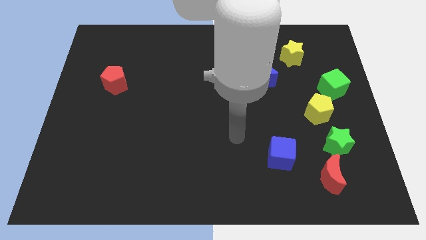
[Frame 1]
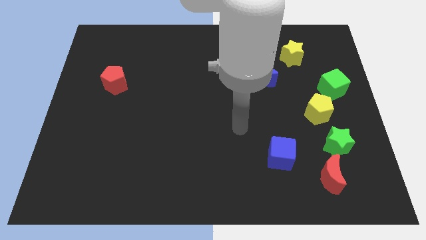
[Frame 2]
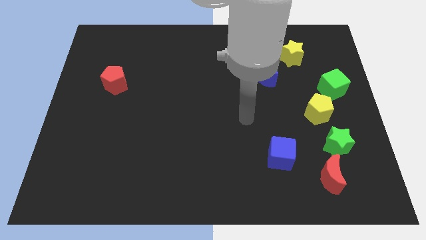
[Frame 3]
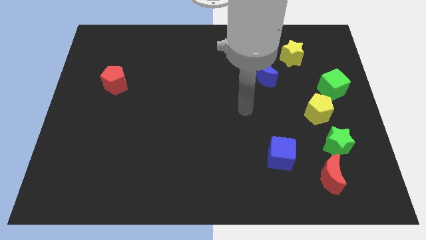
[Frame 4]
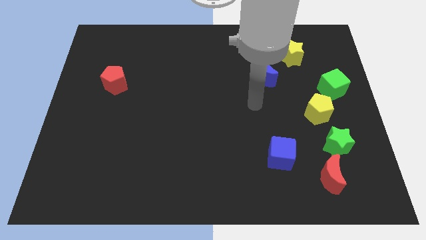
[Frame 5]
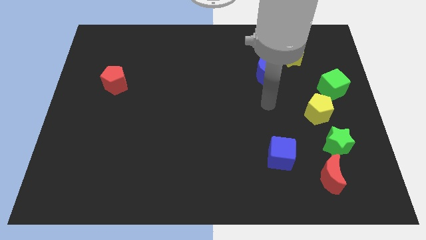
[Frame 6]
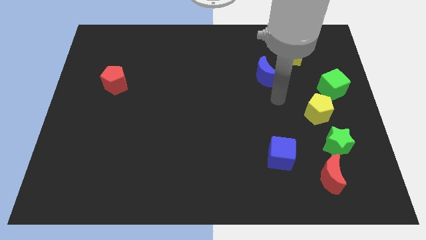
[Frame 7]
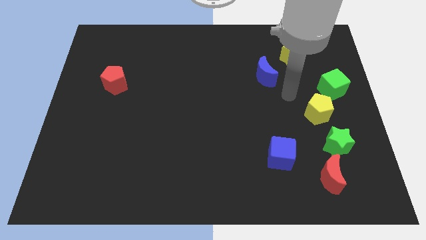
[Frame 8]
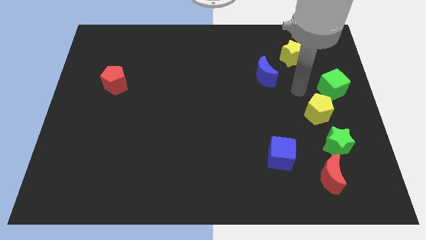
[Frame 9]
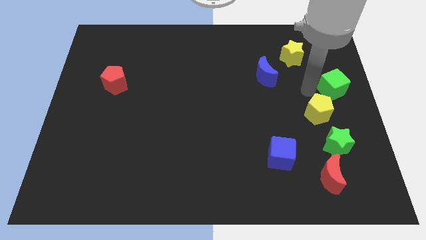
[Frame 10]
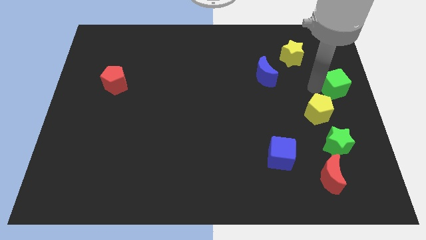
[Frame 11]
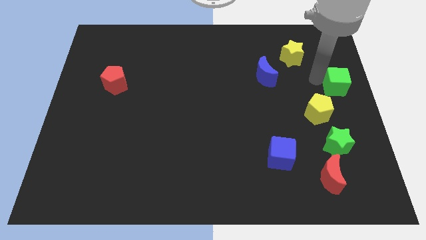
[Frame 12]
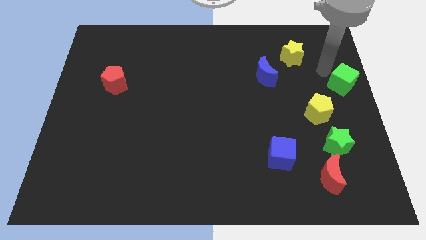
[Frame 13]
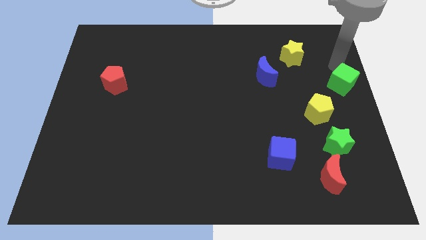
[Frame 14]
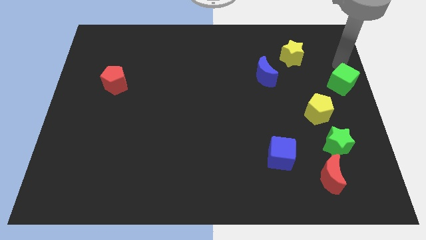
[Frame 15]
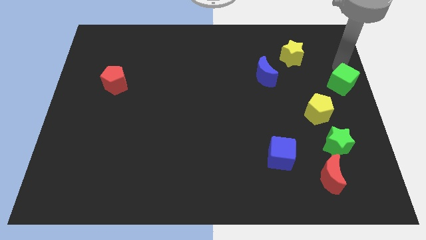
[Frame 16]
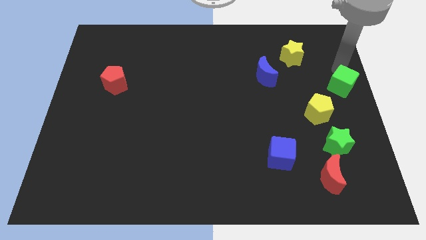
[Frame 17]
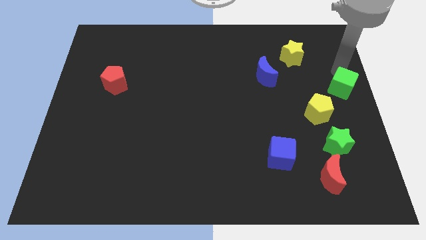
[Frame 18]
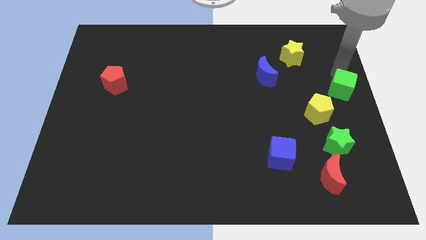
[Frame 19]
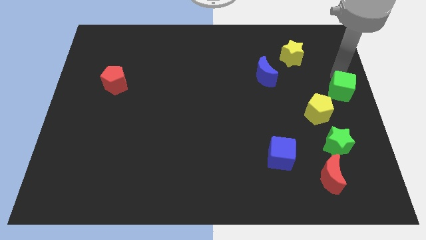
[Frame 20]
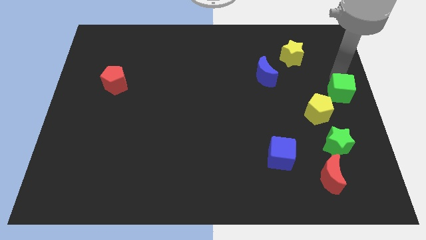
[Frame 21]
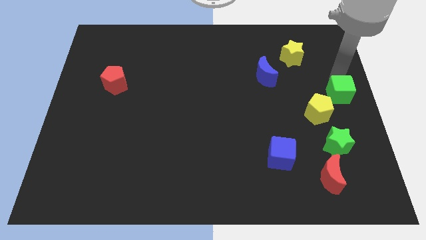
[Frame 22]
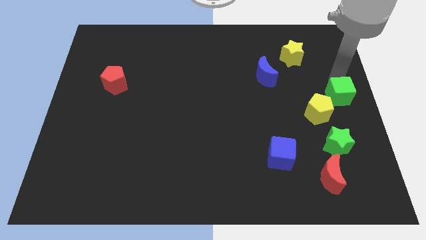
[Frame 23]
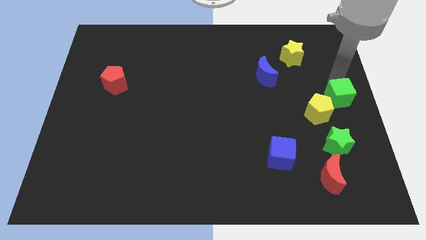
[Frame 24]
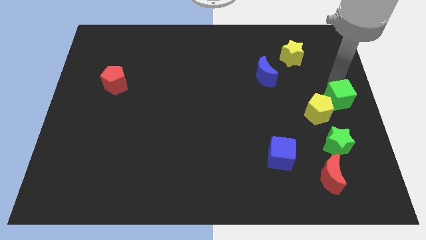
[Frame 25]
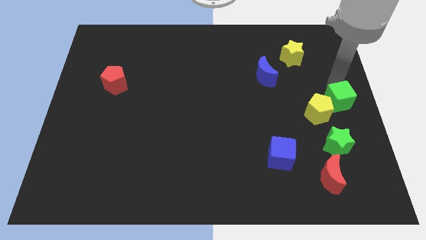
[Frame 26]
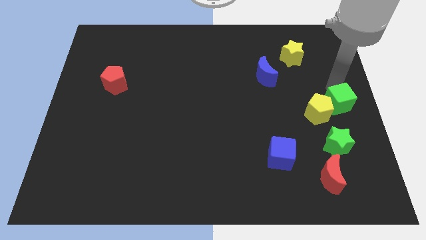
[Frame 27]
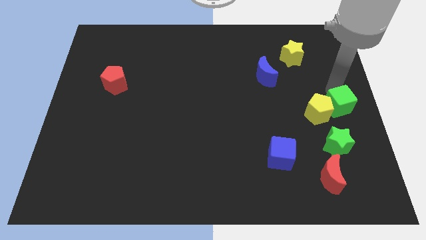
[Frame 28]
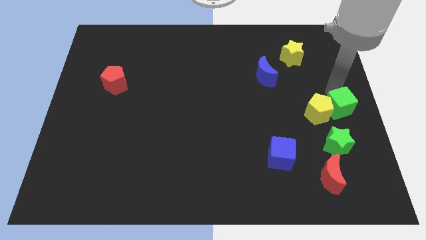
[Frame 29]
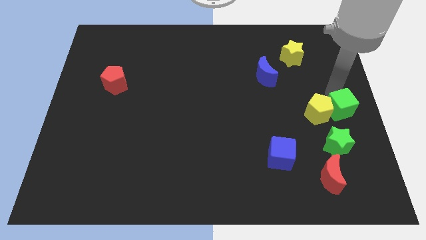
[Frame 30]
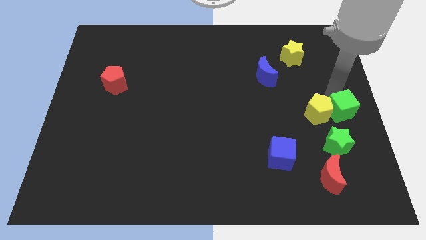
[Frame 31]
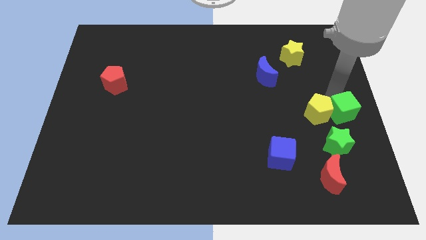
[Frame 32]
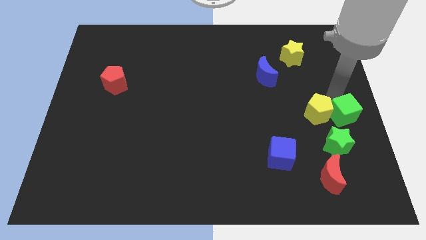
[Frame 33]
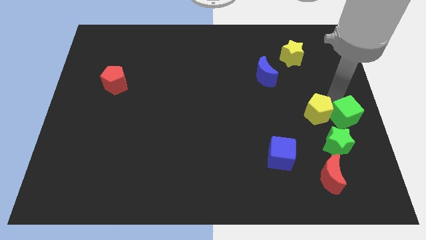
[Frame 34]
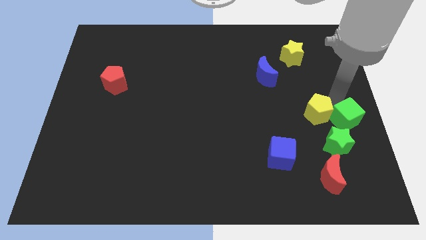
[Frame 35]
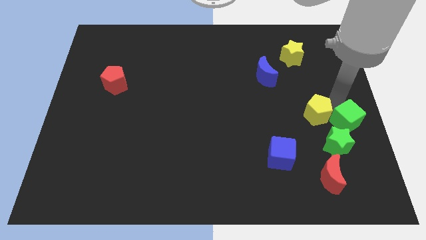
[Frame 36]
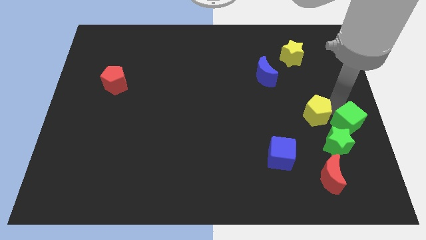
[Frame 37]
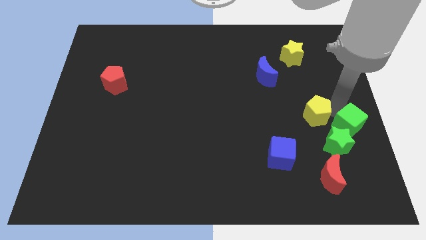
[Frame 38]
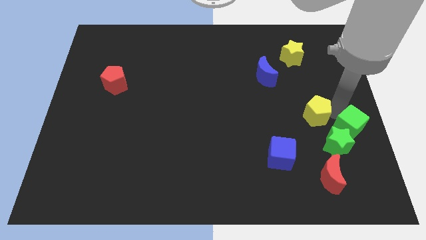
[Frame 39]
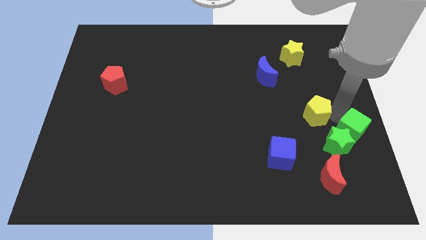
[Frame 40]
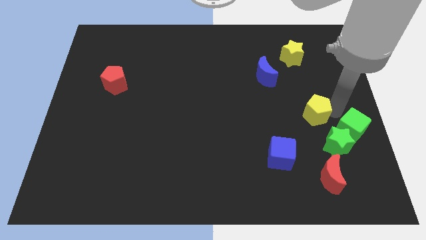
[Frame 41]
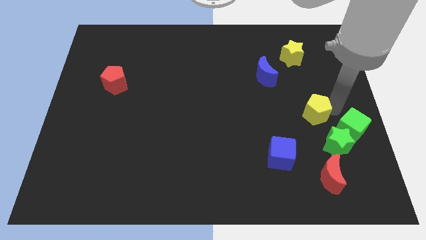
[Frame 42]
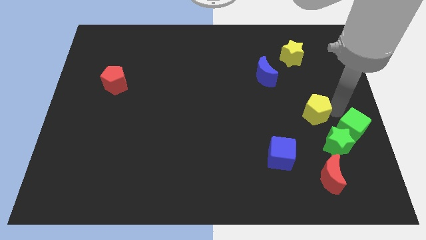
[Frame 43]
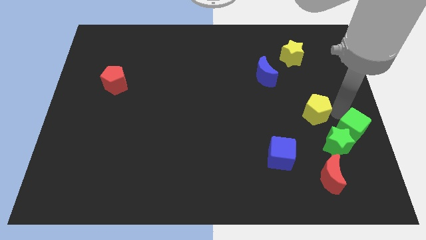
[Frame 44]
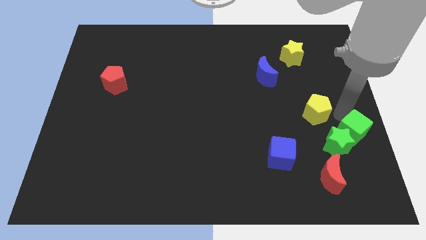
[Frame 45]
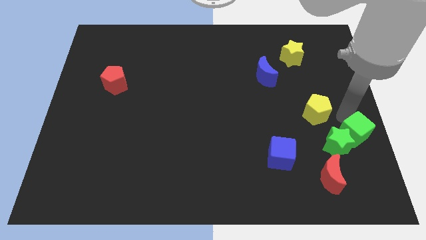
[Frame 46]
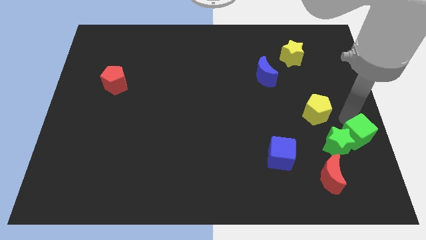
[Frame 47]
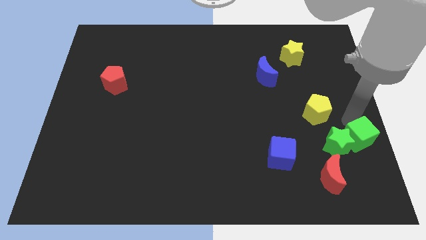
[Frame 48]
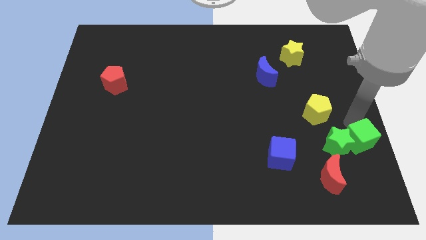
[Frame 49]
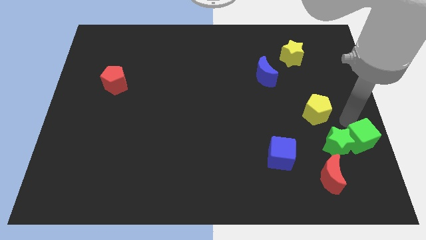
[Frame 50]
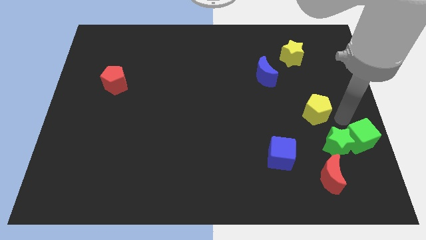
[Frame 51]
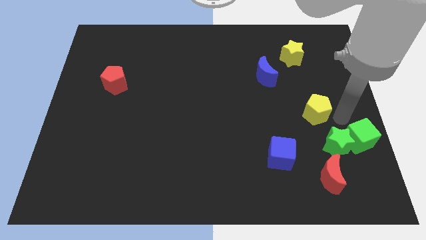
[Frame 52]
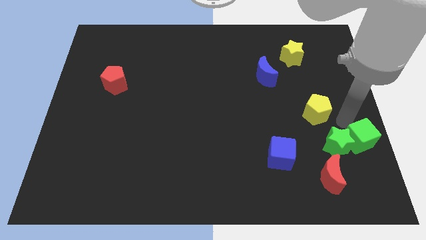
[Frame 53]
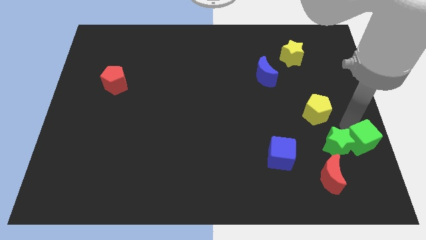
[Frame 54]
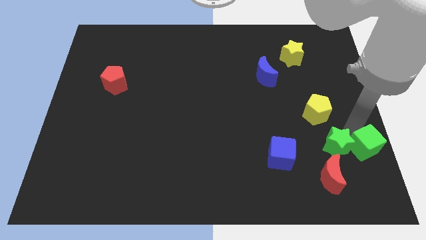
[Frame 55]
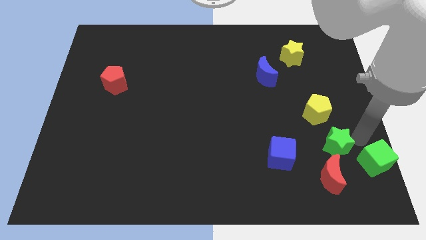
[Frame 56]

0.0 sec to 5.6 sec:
move the green cube to the lower right corner
